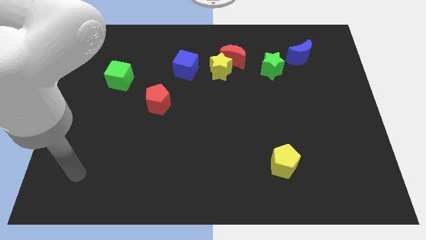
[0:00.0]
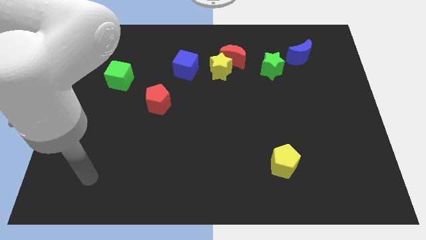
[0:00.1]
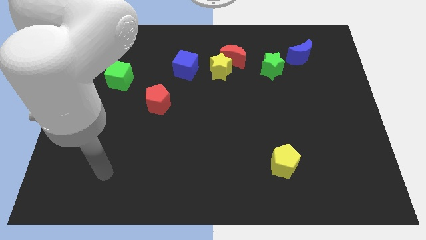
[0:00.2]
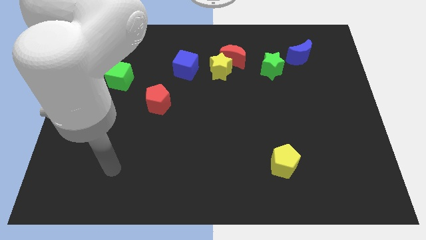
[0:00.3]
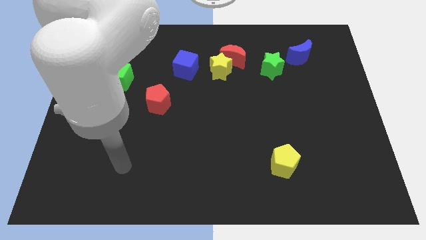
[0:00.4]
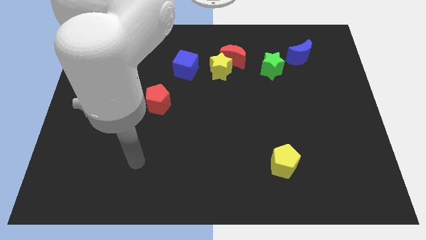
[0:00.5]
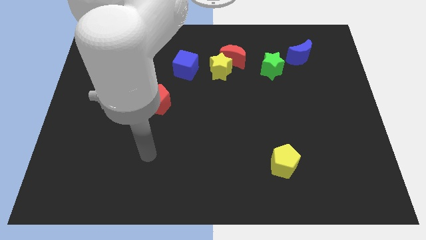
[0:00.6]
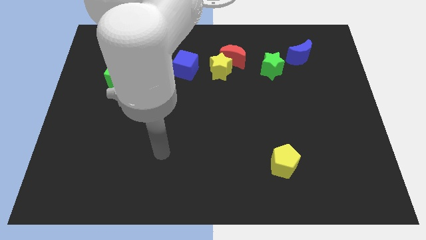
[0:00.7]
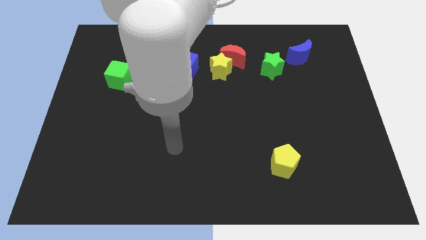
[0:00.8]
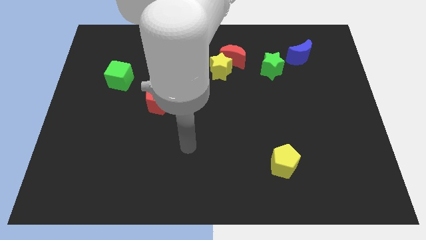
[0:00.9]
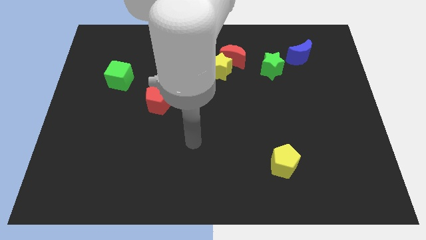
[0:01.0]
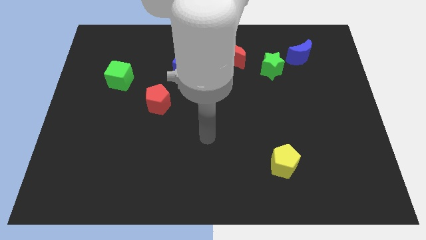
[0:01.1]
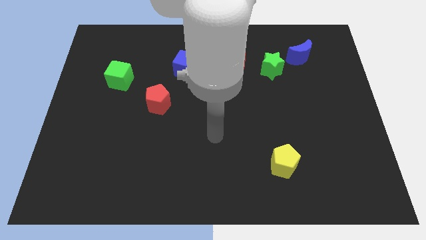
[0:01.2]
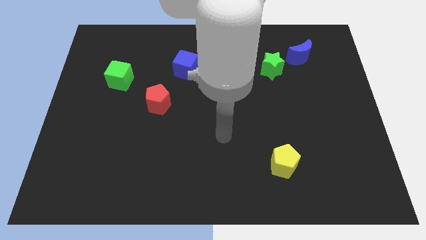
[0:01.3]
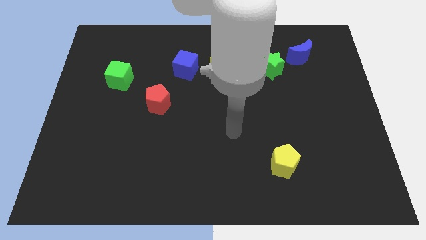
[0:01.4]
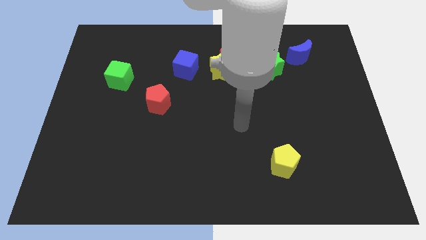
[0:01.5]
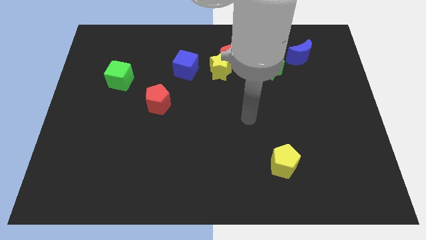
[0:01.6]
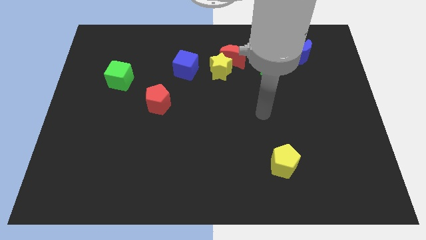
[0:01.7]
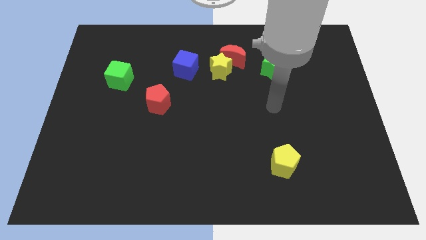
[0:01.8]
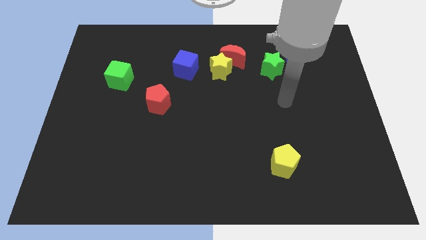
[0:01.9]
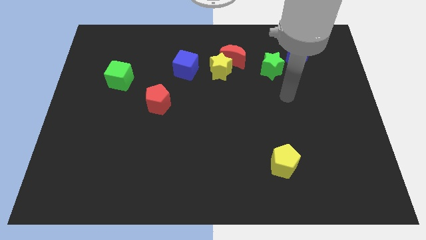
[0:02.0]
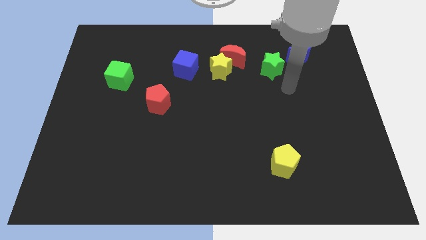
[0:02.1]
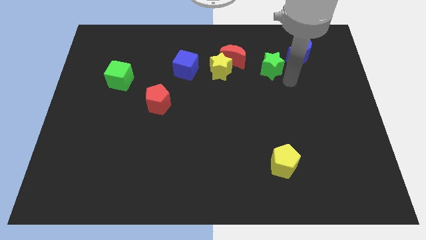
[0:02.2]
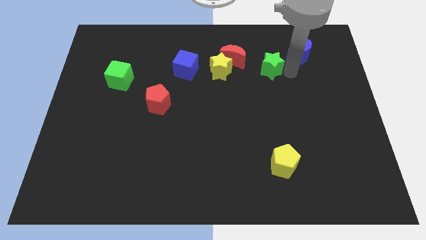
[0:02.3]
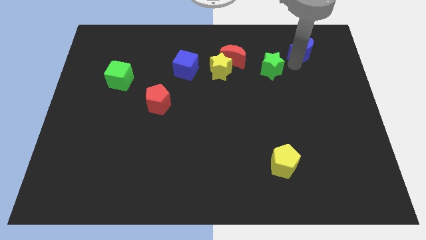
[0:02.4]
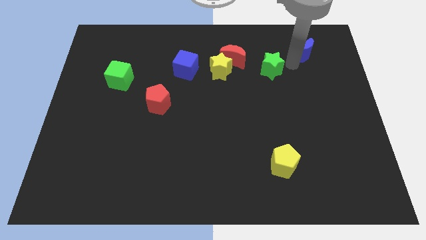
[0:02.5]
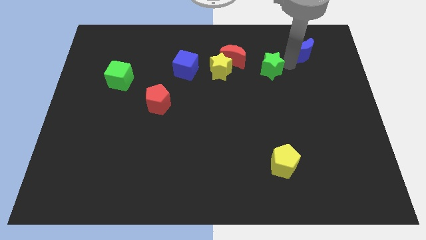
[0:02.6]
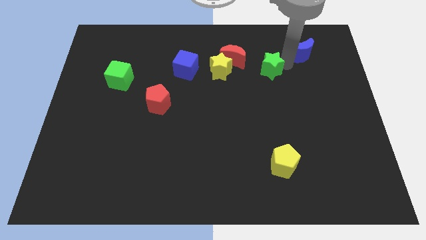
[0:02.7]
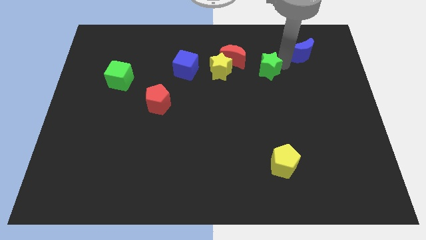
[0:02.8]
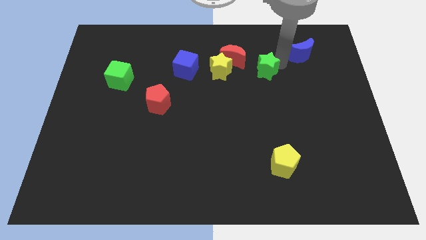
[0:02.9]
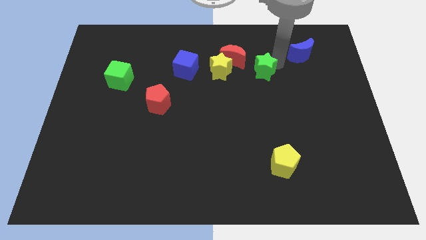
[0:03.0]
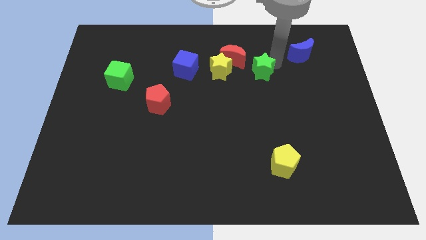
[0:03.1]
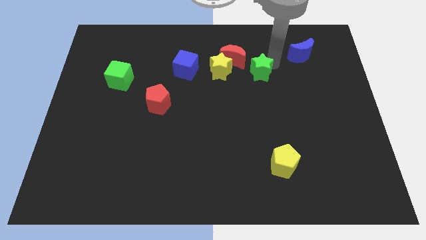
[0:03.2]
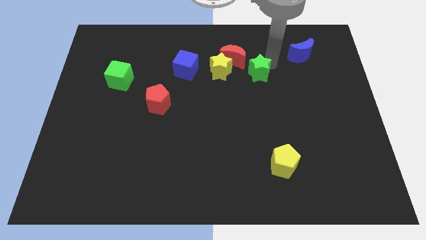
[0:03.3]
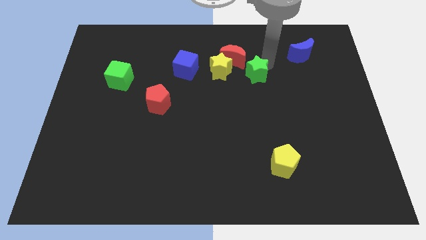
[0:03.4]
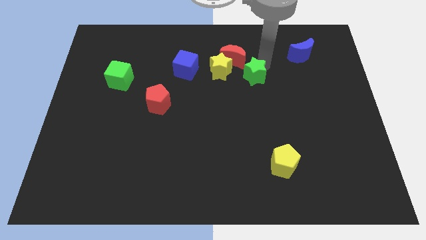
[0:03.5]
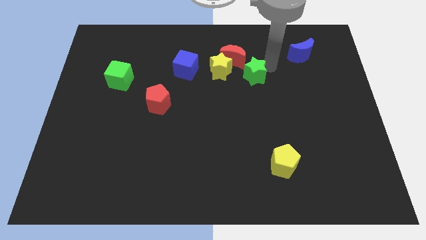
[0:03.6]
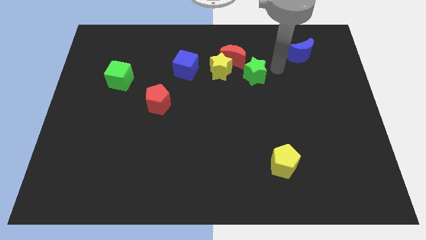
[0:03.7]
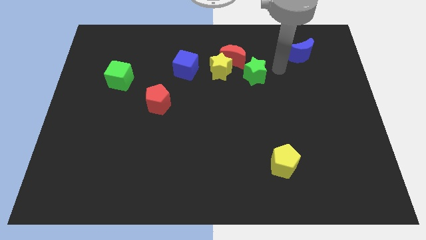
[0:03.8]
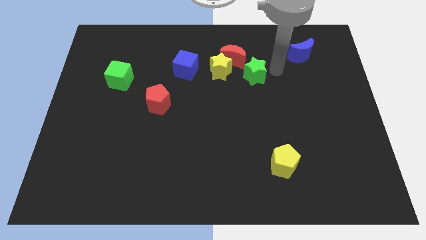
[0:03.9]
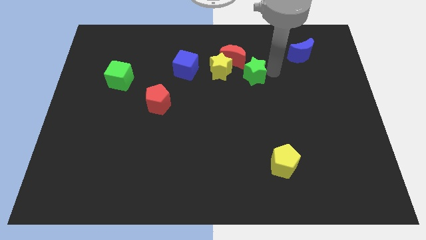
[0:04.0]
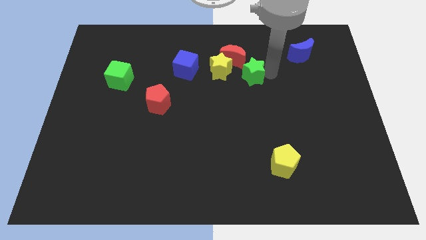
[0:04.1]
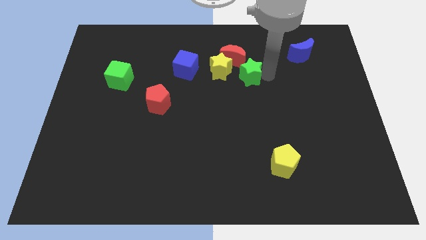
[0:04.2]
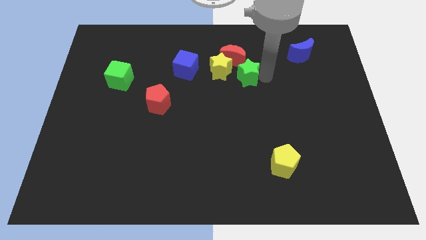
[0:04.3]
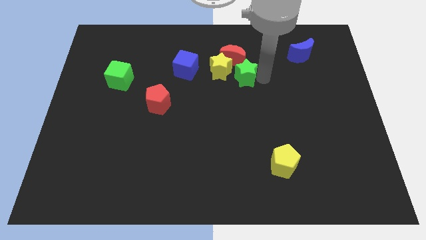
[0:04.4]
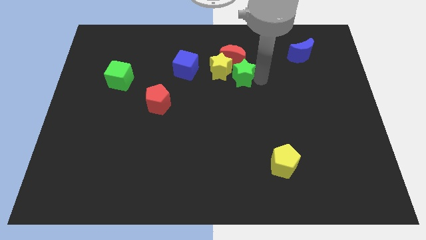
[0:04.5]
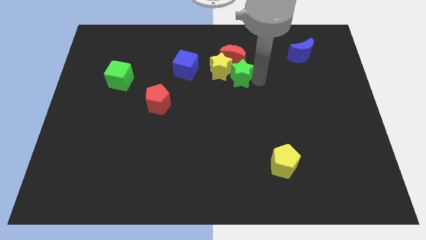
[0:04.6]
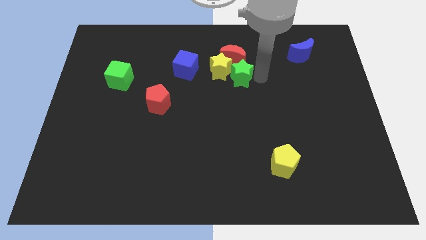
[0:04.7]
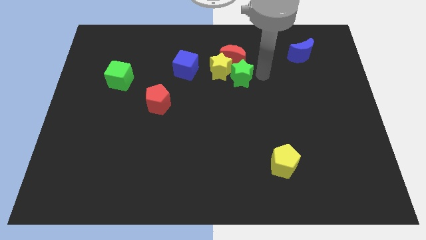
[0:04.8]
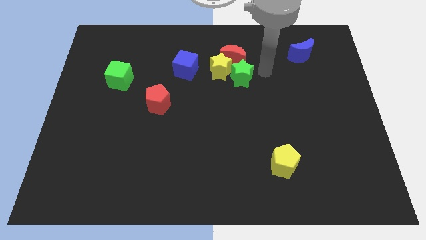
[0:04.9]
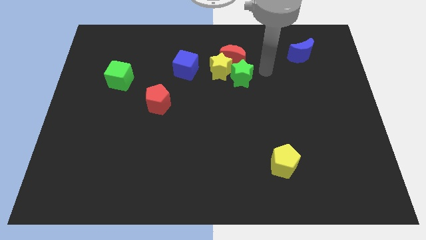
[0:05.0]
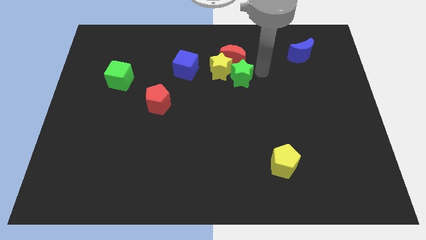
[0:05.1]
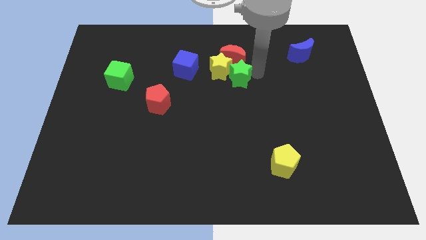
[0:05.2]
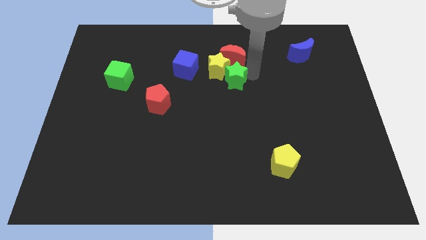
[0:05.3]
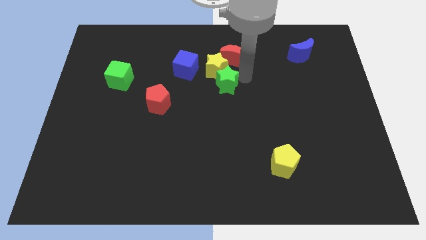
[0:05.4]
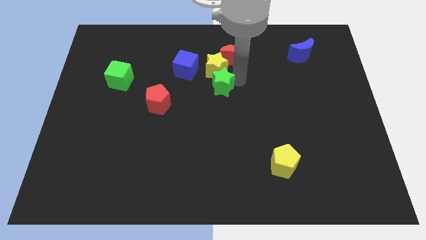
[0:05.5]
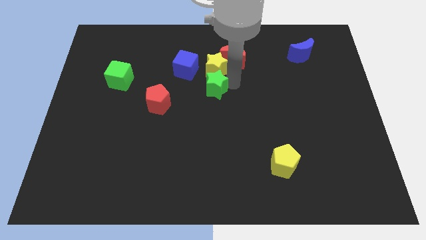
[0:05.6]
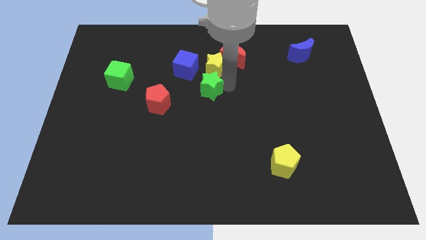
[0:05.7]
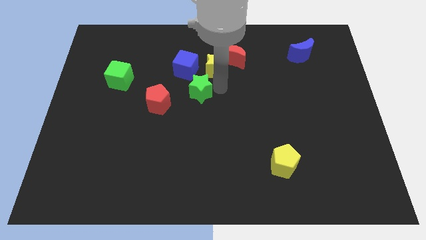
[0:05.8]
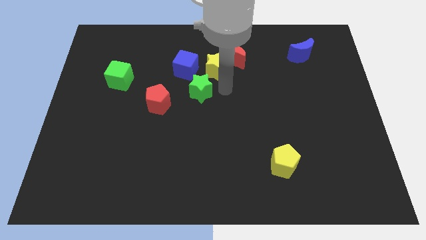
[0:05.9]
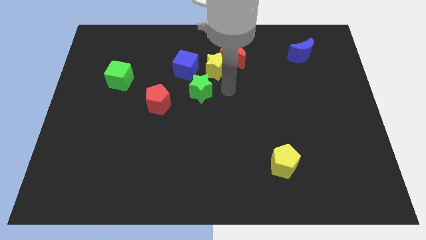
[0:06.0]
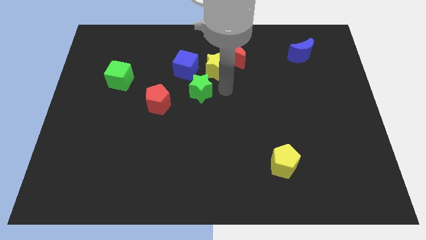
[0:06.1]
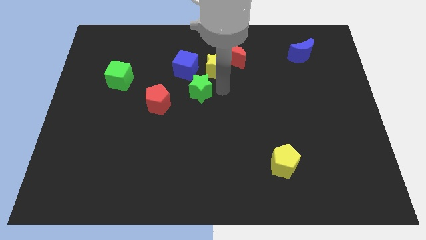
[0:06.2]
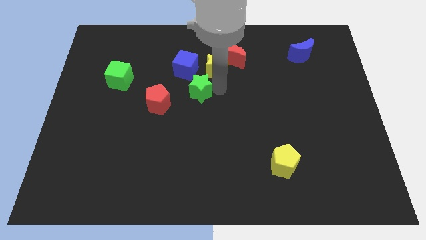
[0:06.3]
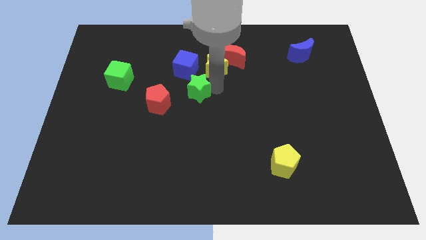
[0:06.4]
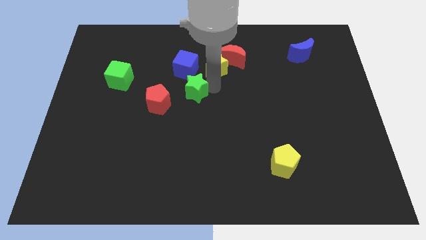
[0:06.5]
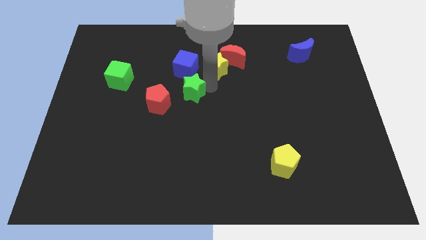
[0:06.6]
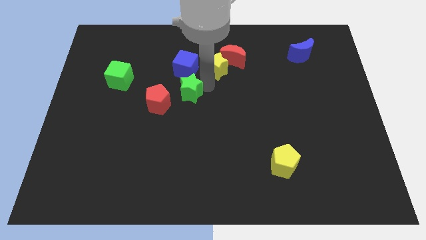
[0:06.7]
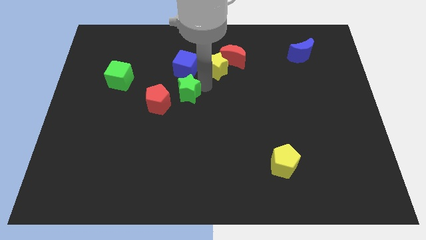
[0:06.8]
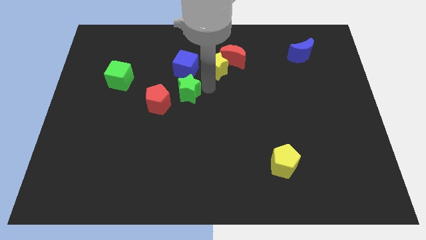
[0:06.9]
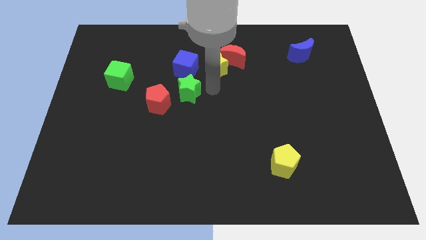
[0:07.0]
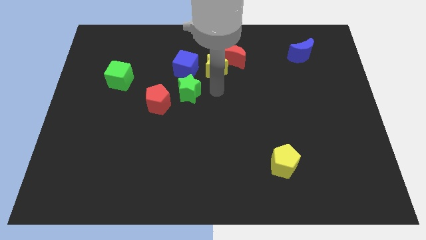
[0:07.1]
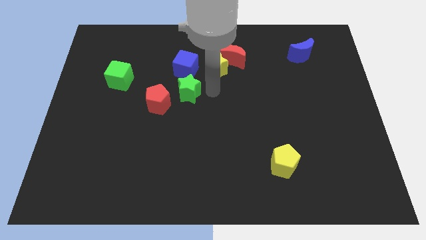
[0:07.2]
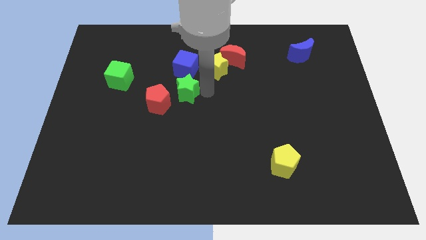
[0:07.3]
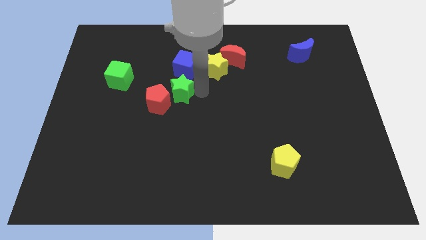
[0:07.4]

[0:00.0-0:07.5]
slide the green star left

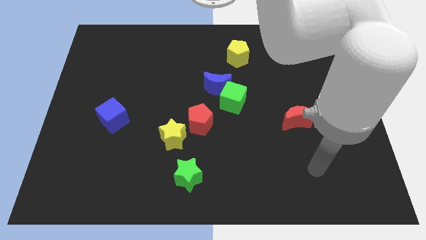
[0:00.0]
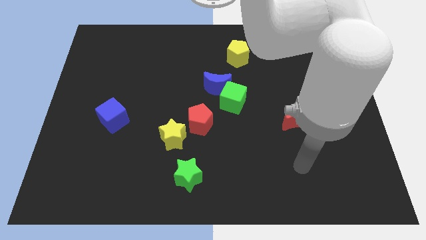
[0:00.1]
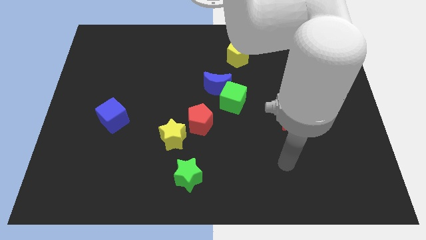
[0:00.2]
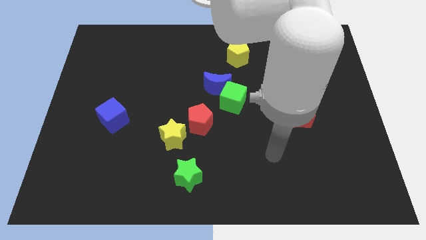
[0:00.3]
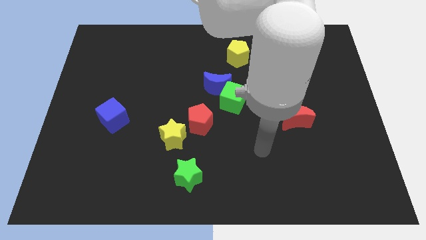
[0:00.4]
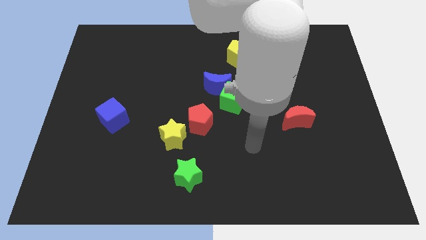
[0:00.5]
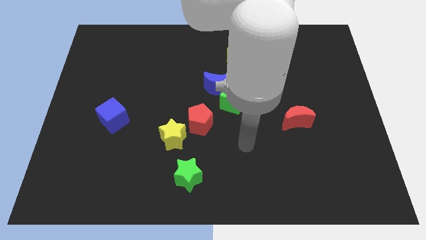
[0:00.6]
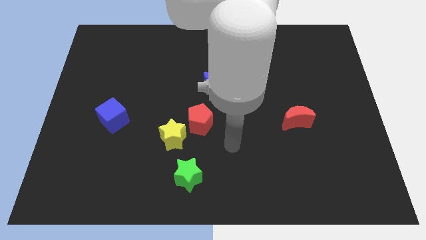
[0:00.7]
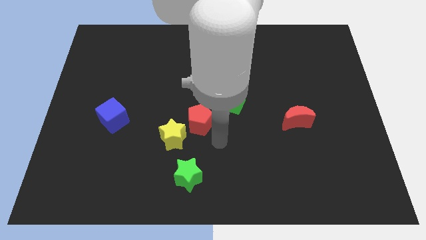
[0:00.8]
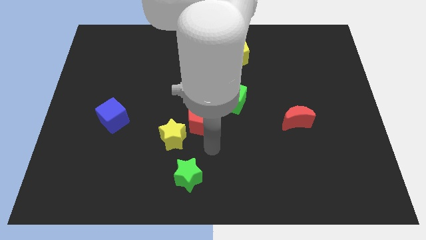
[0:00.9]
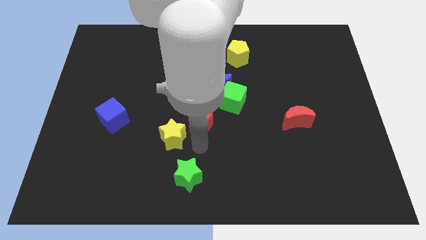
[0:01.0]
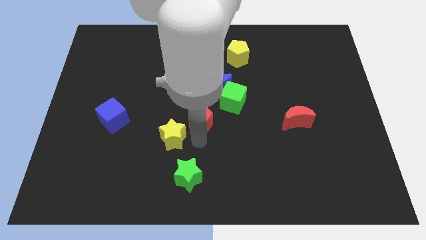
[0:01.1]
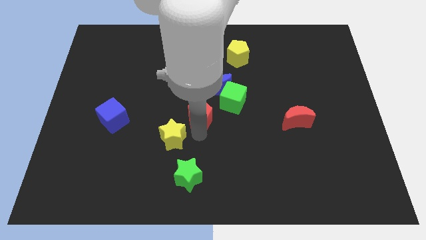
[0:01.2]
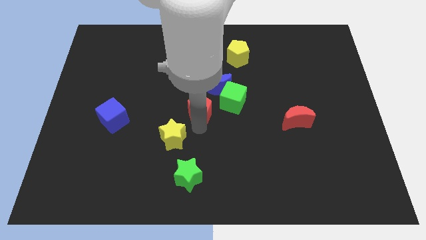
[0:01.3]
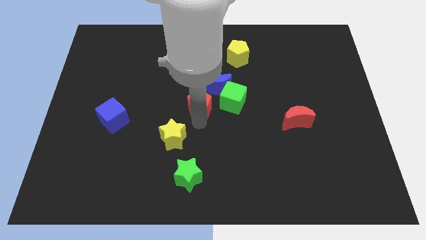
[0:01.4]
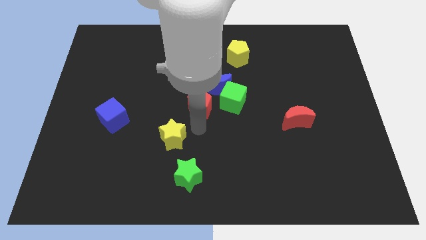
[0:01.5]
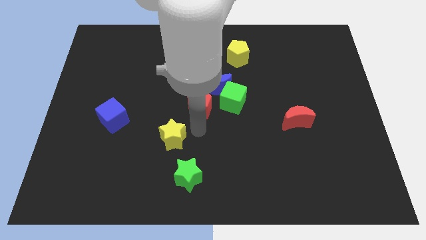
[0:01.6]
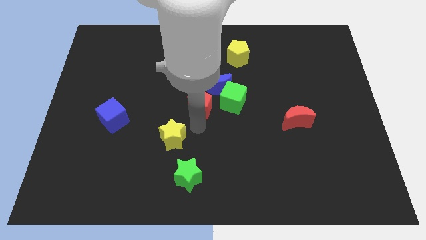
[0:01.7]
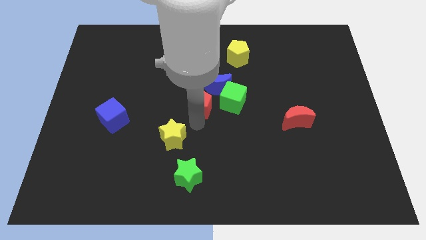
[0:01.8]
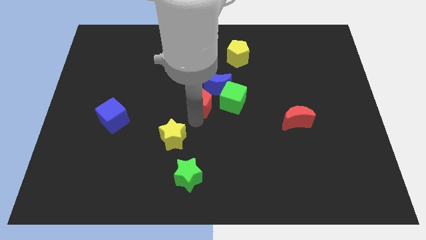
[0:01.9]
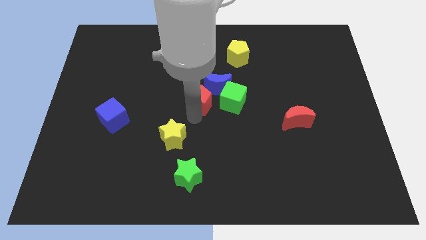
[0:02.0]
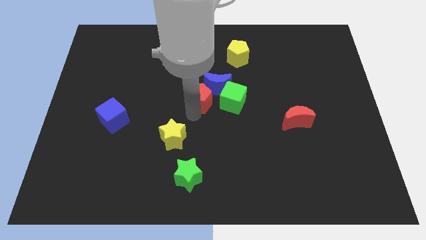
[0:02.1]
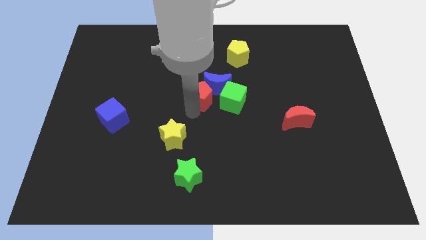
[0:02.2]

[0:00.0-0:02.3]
slide the red pentagon a little upwards
